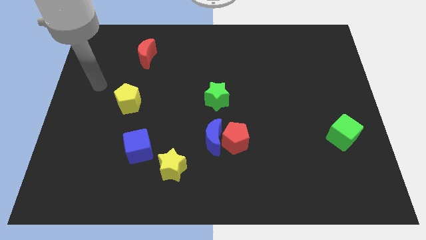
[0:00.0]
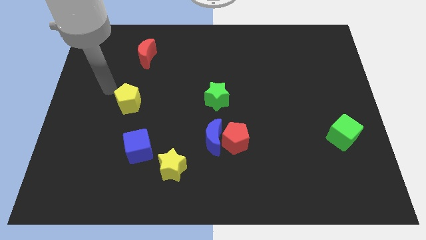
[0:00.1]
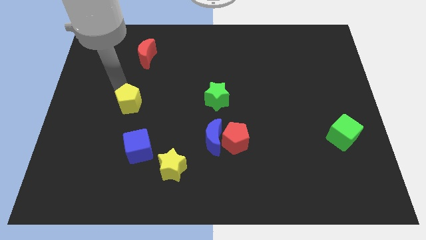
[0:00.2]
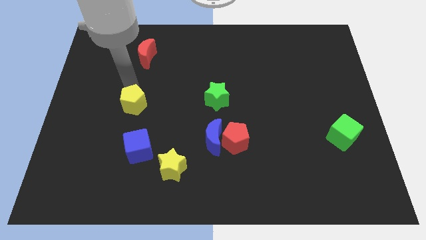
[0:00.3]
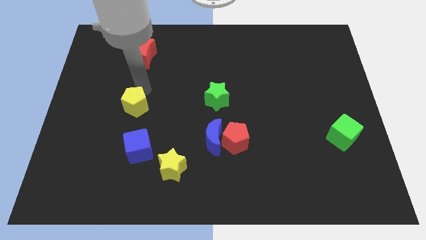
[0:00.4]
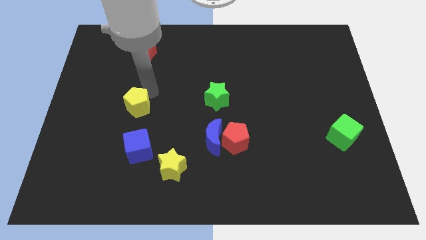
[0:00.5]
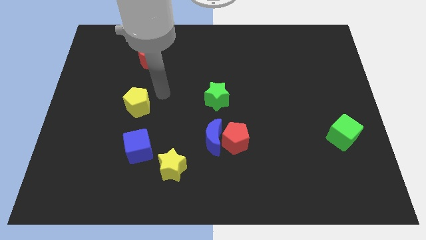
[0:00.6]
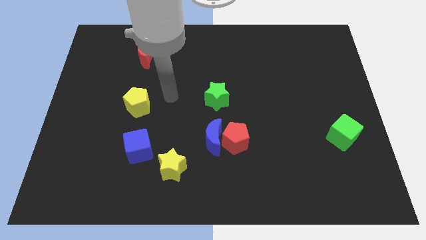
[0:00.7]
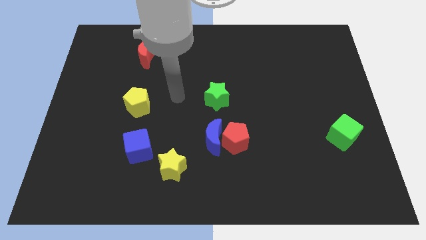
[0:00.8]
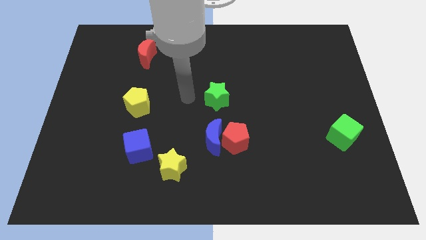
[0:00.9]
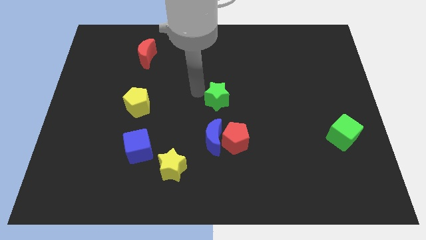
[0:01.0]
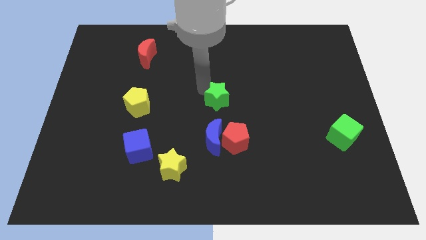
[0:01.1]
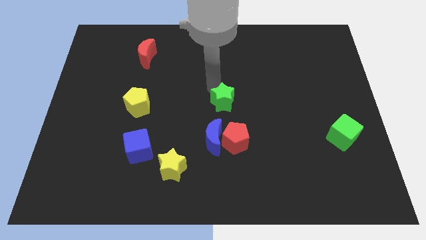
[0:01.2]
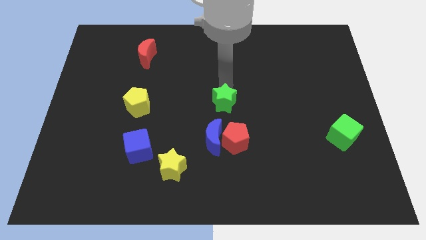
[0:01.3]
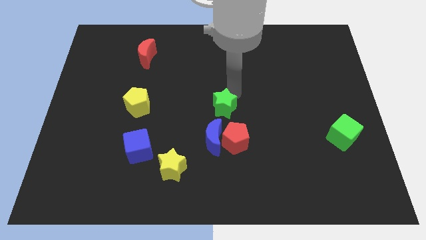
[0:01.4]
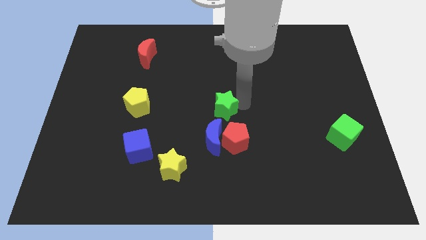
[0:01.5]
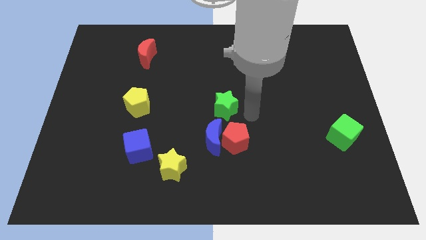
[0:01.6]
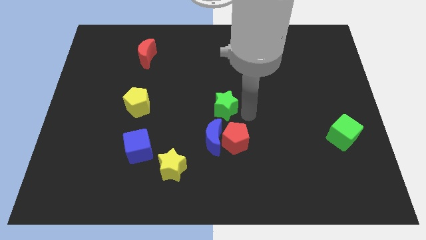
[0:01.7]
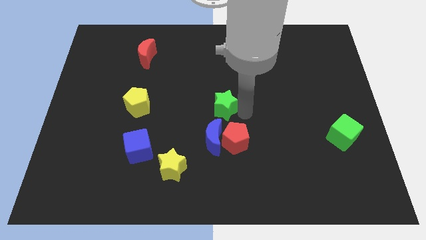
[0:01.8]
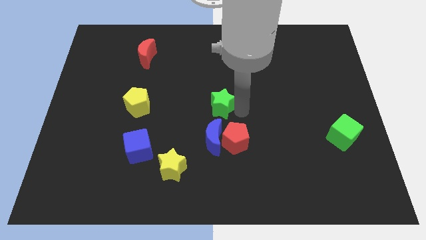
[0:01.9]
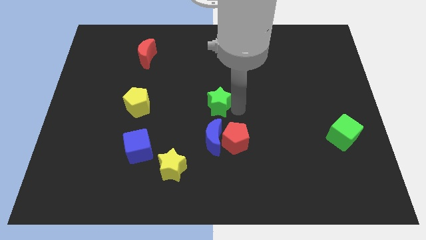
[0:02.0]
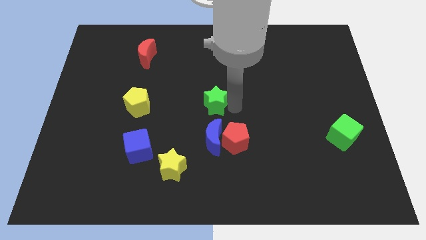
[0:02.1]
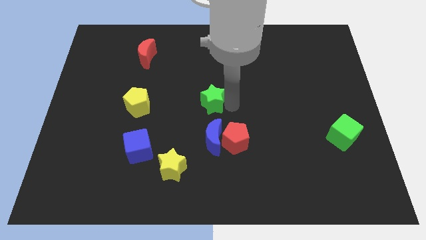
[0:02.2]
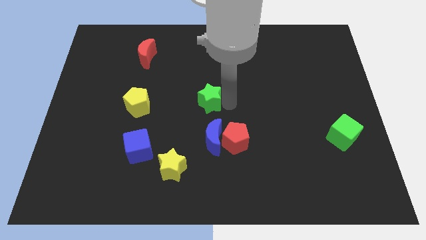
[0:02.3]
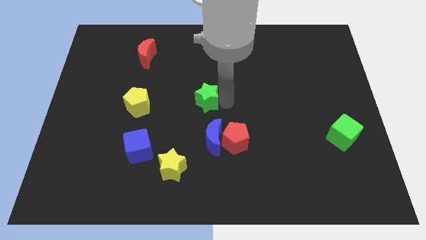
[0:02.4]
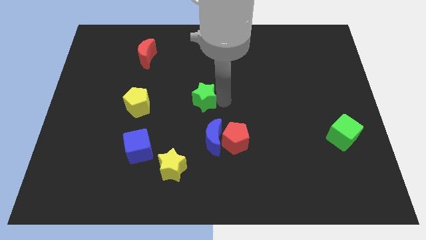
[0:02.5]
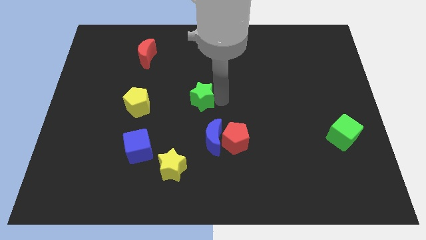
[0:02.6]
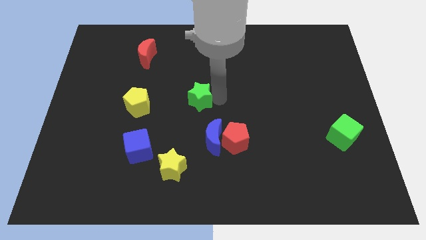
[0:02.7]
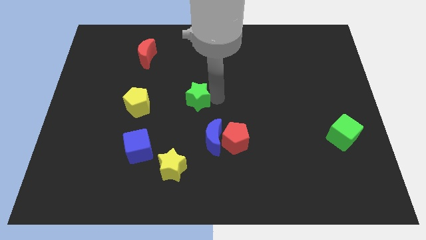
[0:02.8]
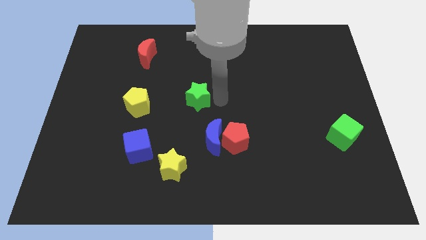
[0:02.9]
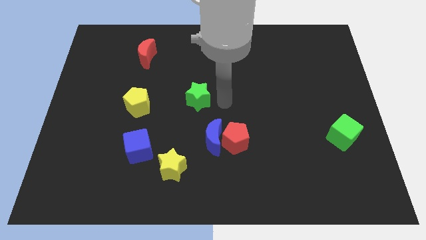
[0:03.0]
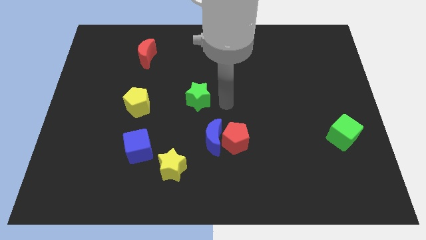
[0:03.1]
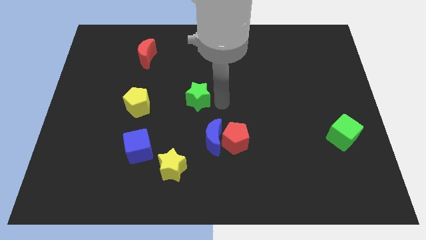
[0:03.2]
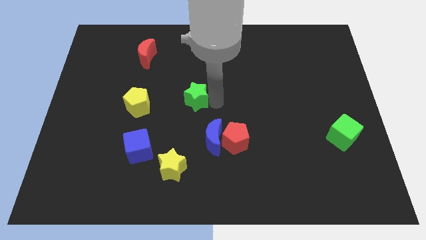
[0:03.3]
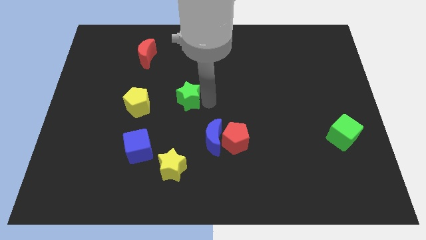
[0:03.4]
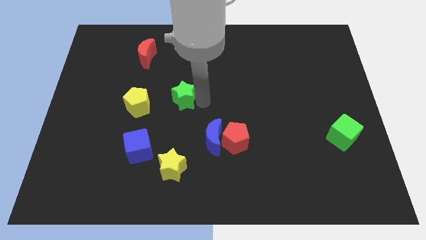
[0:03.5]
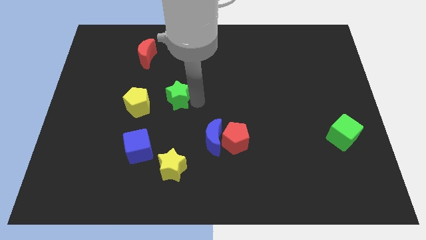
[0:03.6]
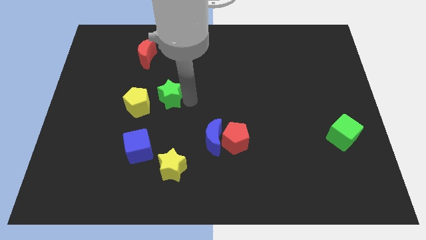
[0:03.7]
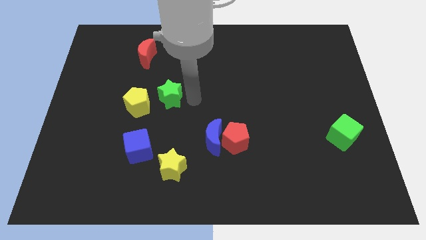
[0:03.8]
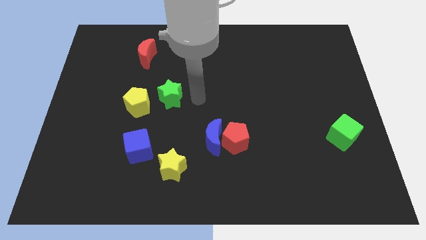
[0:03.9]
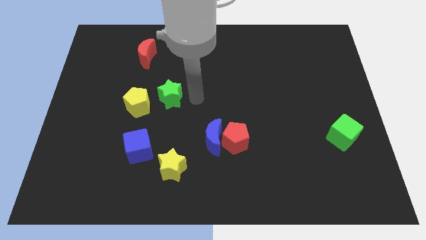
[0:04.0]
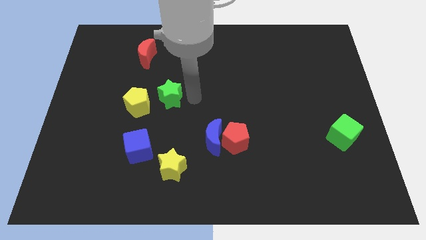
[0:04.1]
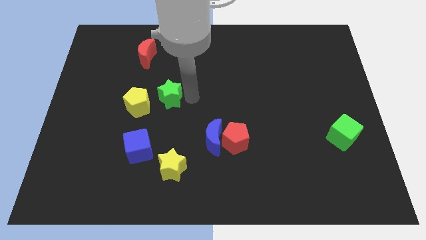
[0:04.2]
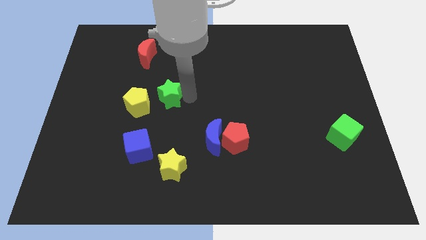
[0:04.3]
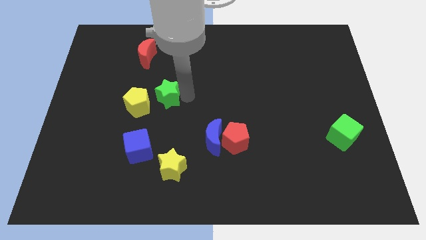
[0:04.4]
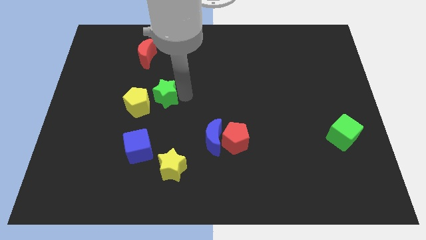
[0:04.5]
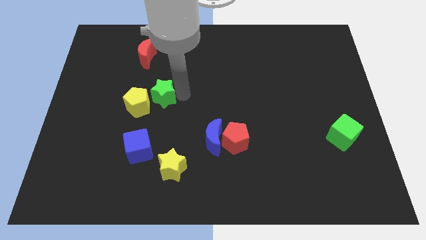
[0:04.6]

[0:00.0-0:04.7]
push the green star next to the yellow pentagon

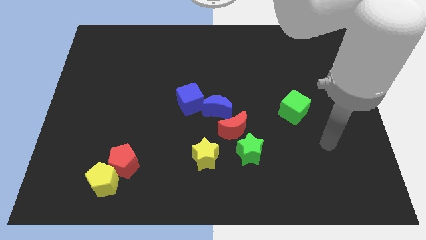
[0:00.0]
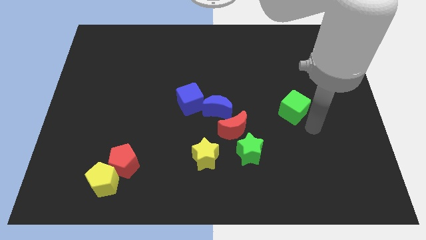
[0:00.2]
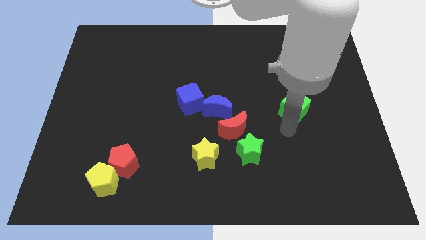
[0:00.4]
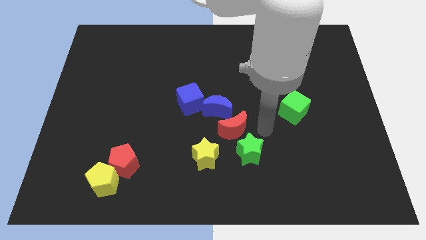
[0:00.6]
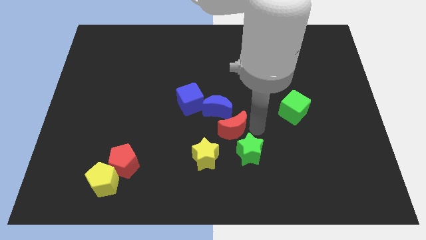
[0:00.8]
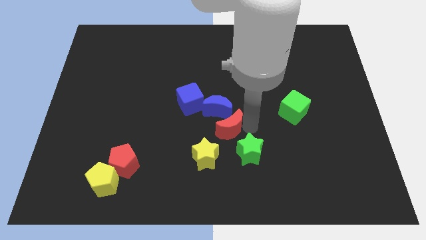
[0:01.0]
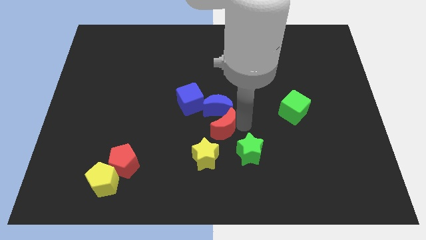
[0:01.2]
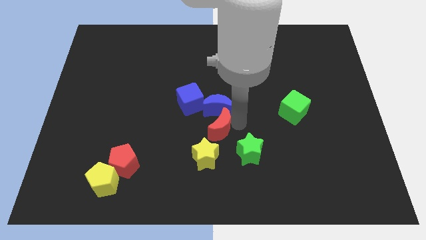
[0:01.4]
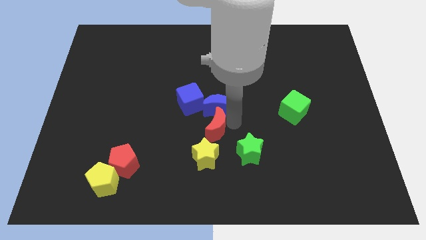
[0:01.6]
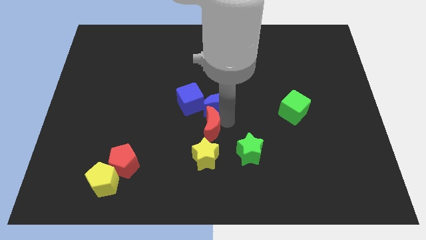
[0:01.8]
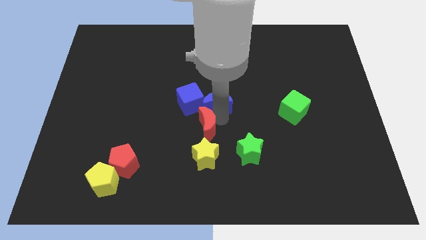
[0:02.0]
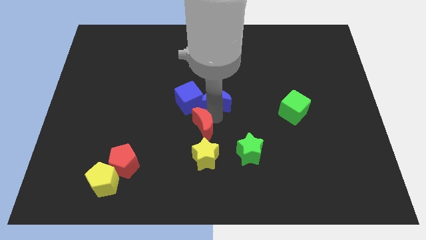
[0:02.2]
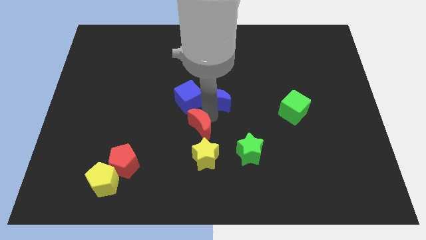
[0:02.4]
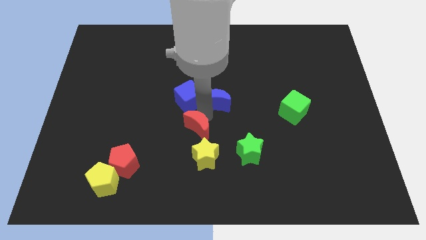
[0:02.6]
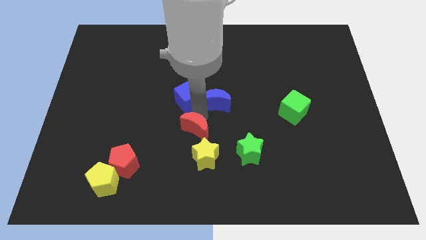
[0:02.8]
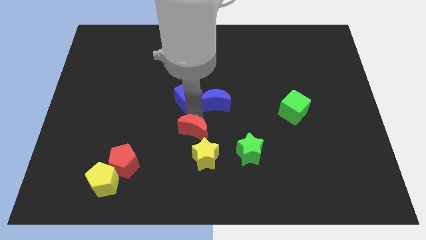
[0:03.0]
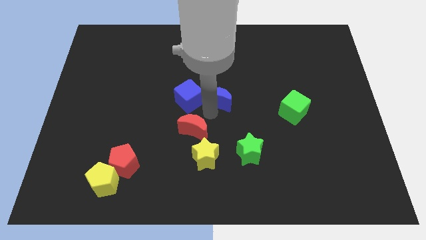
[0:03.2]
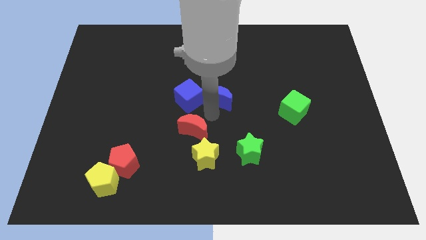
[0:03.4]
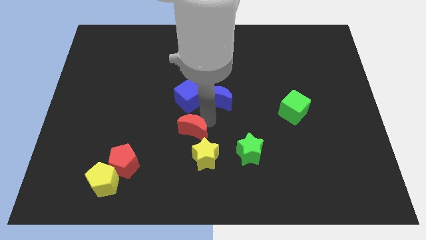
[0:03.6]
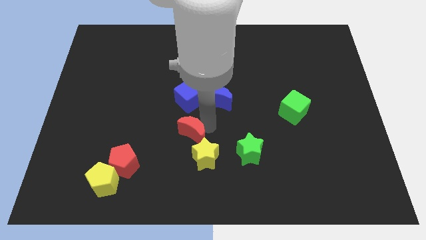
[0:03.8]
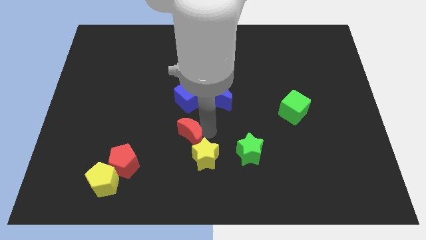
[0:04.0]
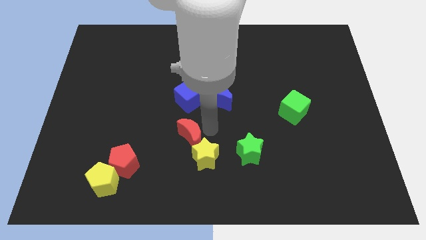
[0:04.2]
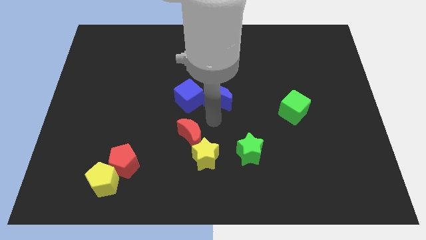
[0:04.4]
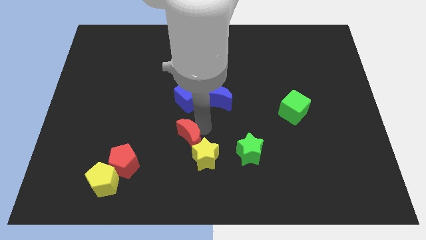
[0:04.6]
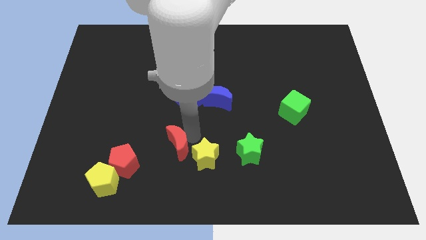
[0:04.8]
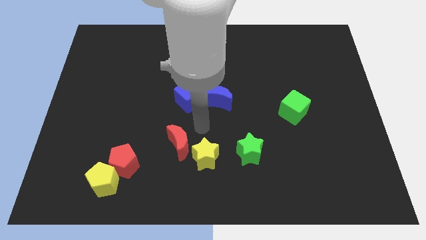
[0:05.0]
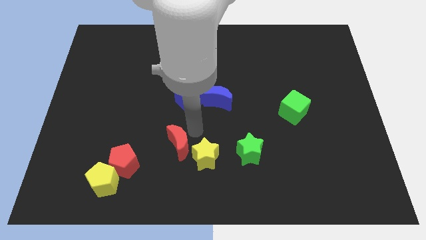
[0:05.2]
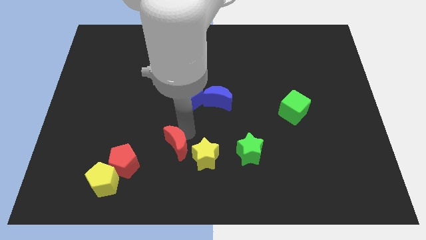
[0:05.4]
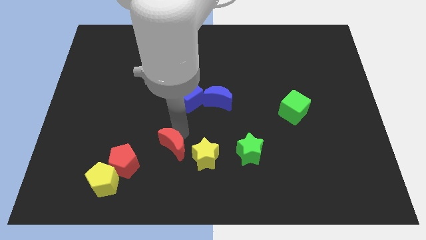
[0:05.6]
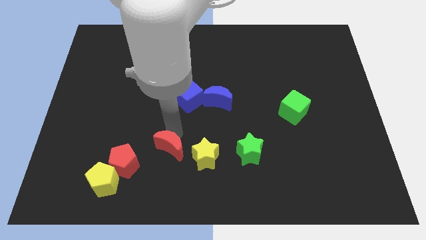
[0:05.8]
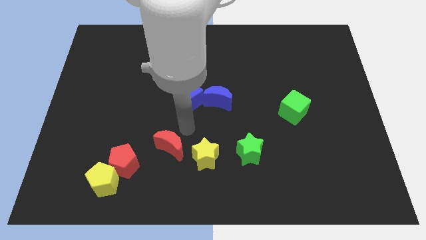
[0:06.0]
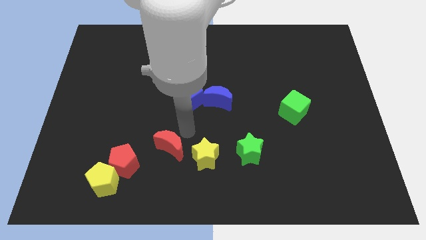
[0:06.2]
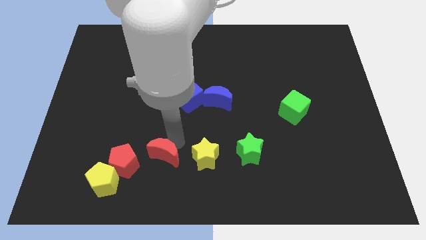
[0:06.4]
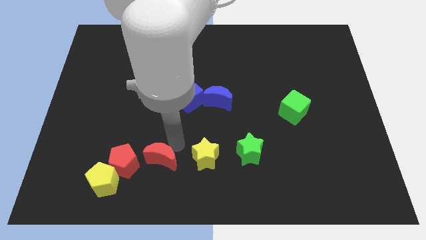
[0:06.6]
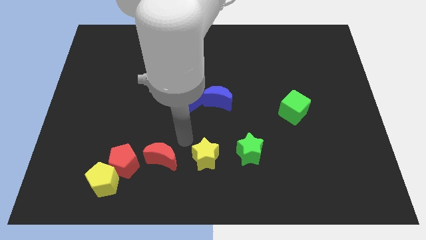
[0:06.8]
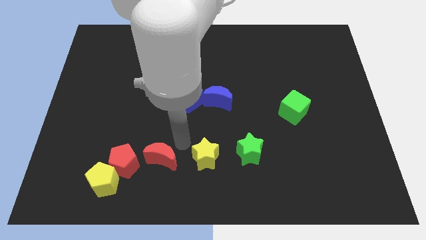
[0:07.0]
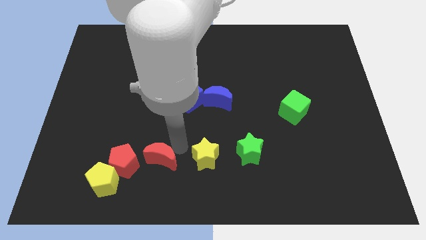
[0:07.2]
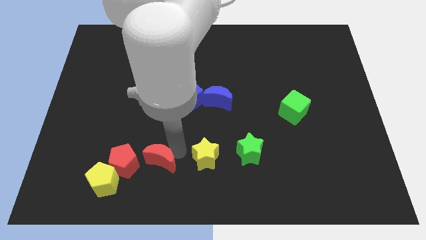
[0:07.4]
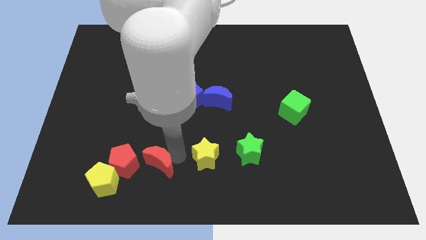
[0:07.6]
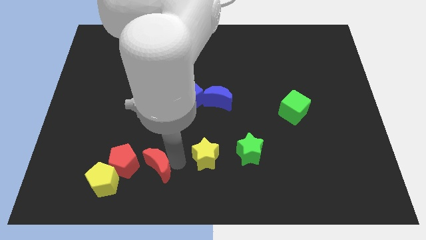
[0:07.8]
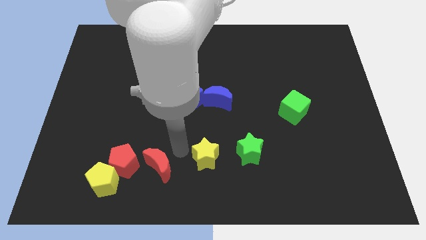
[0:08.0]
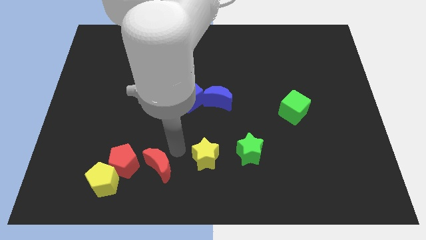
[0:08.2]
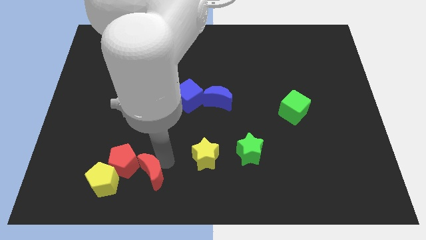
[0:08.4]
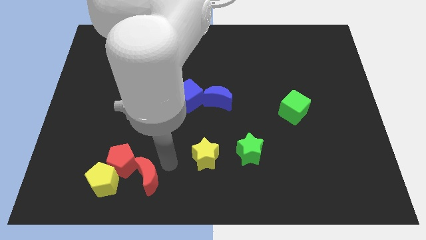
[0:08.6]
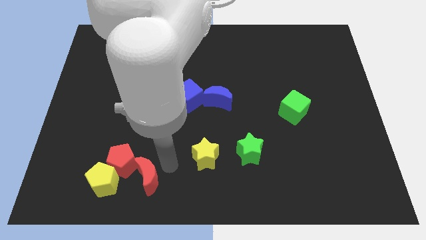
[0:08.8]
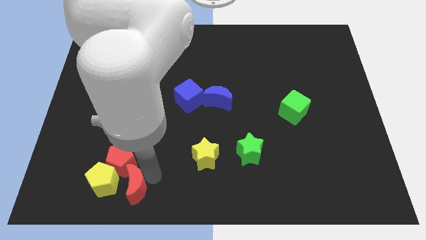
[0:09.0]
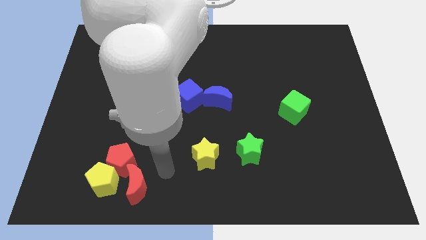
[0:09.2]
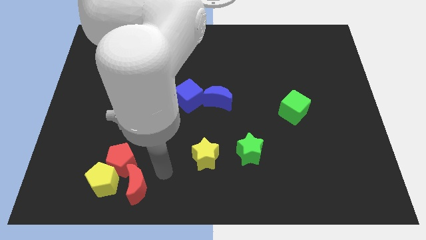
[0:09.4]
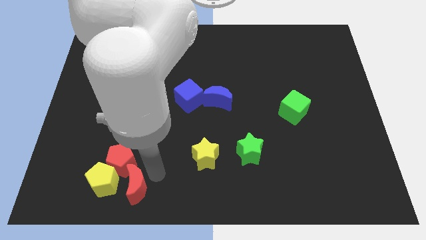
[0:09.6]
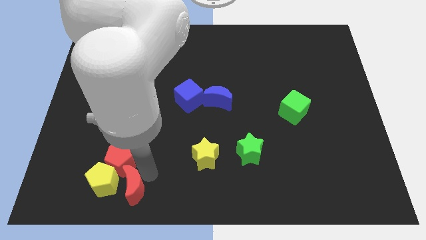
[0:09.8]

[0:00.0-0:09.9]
slide the red moon next to the yellow pentagon
